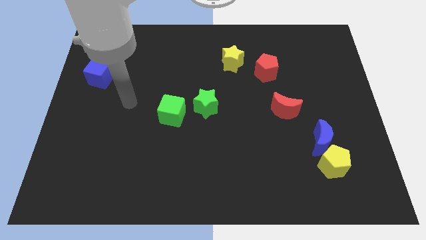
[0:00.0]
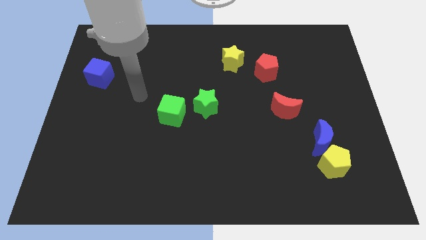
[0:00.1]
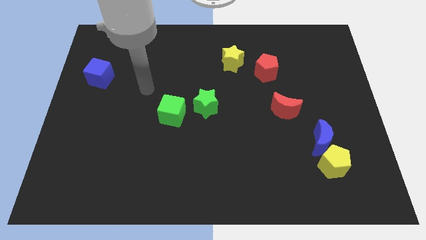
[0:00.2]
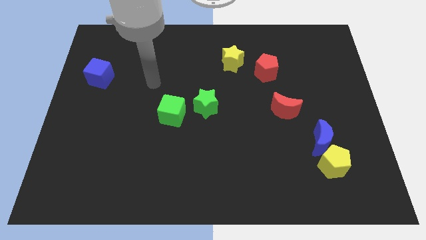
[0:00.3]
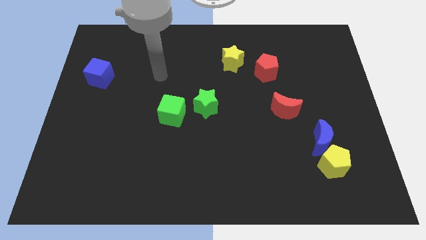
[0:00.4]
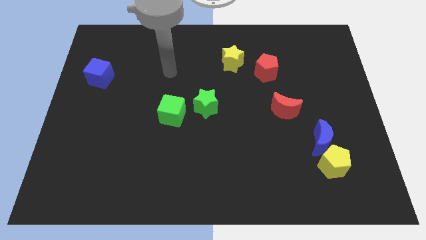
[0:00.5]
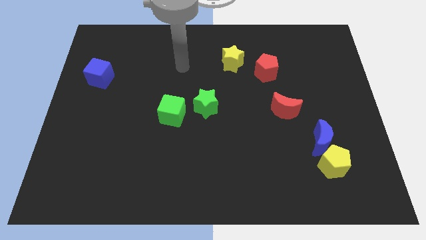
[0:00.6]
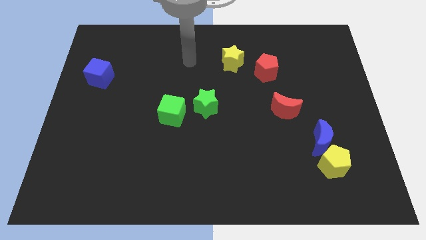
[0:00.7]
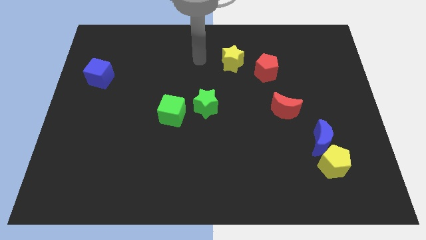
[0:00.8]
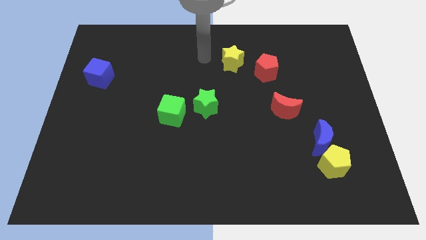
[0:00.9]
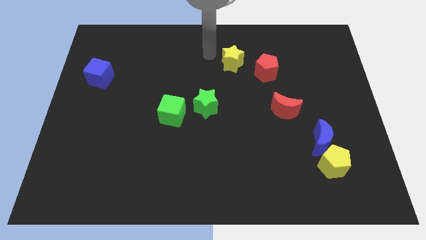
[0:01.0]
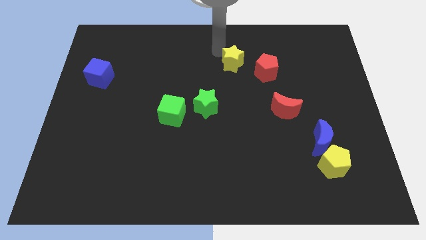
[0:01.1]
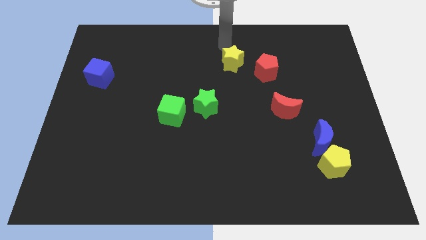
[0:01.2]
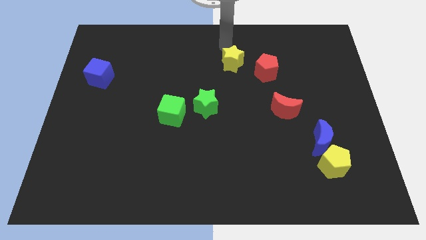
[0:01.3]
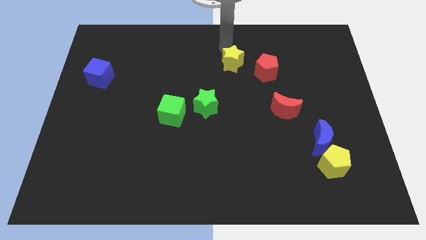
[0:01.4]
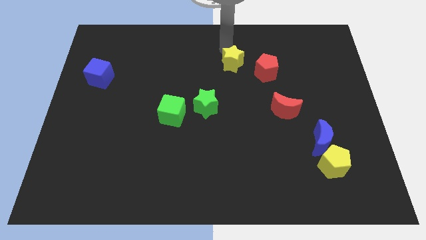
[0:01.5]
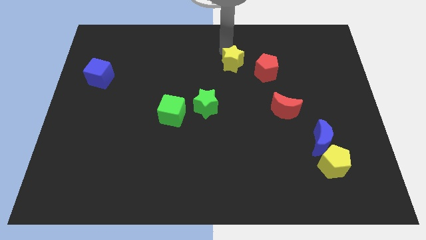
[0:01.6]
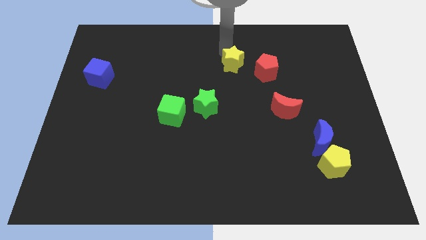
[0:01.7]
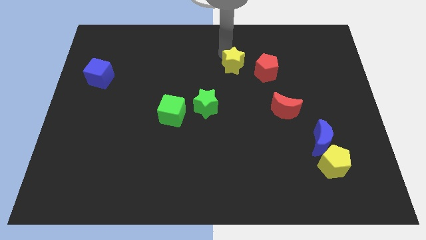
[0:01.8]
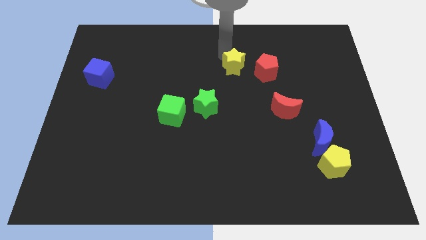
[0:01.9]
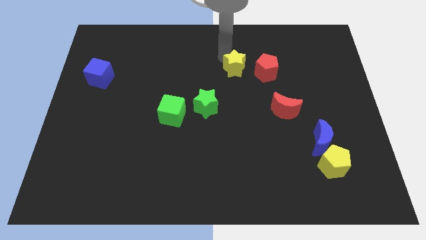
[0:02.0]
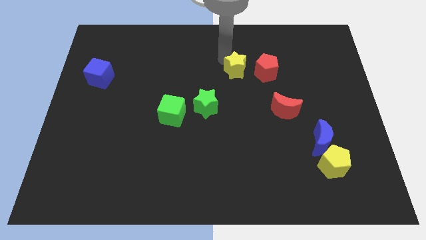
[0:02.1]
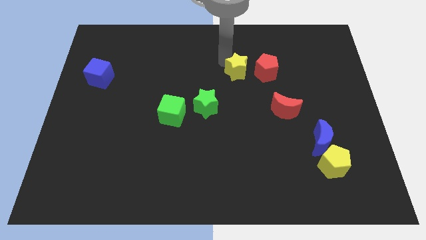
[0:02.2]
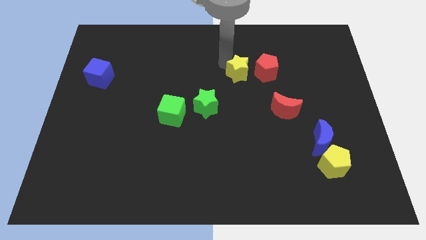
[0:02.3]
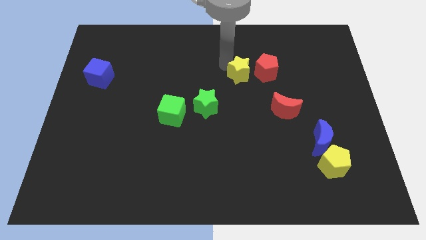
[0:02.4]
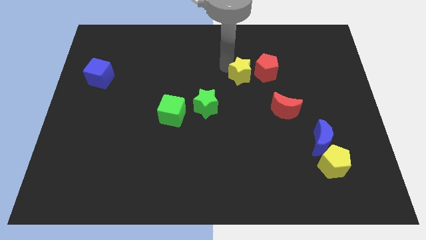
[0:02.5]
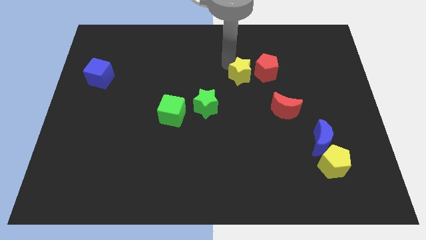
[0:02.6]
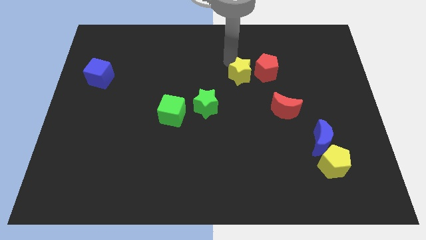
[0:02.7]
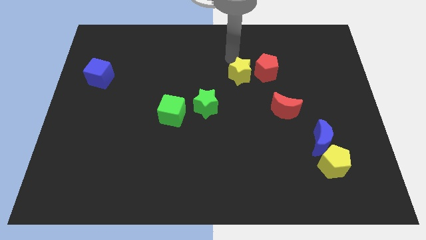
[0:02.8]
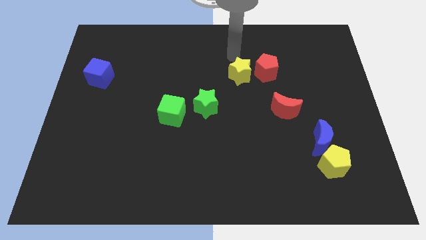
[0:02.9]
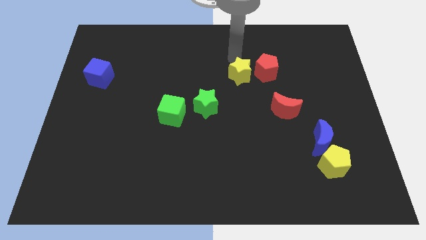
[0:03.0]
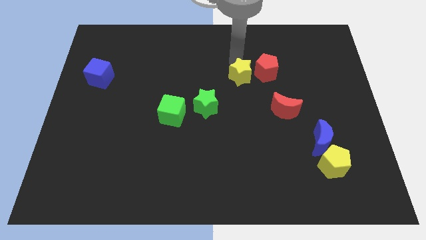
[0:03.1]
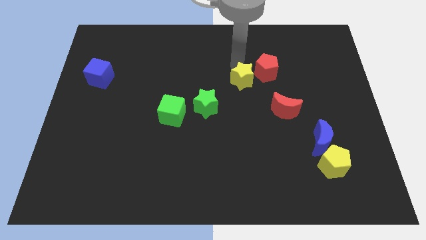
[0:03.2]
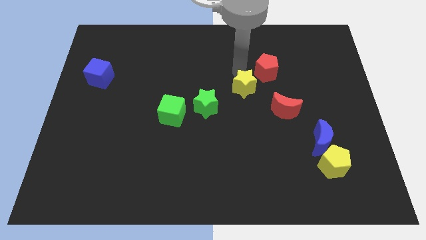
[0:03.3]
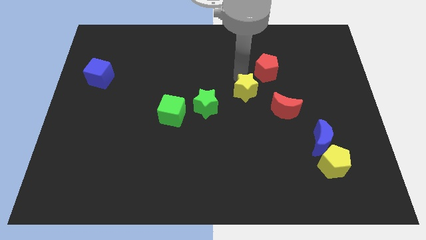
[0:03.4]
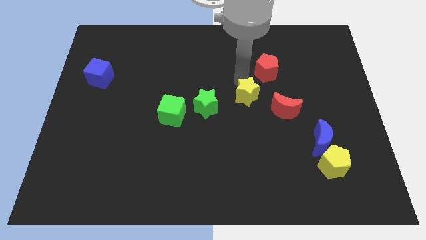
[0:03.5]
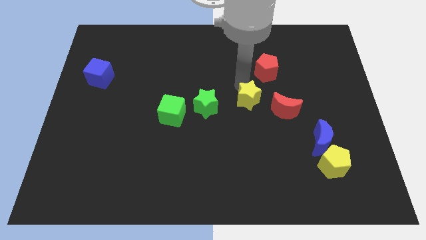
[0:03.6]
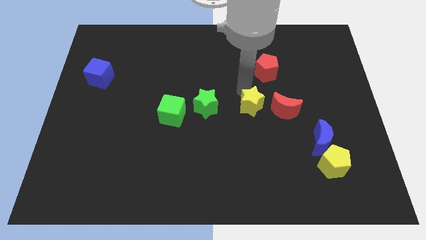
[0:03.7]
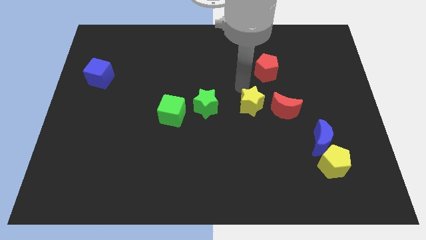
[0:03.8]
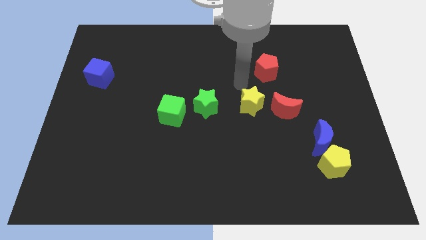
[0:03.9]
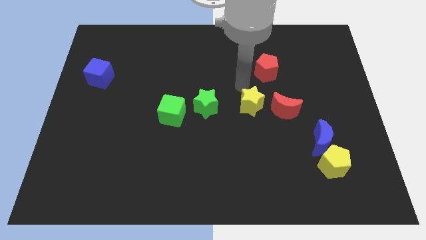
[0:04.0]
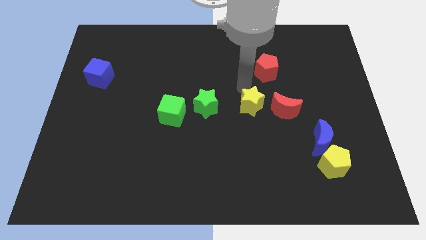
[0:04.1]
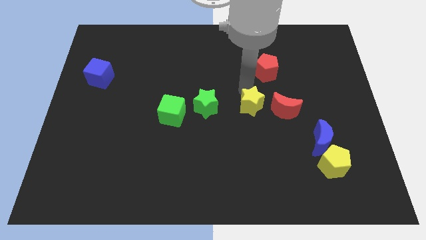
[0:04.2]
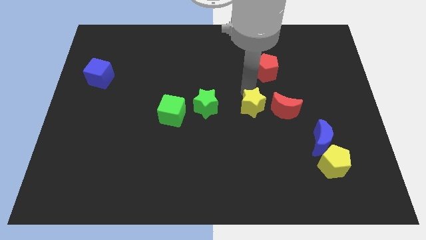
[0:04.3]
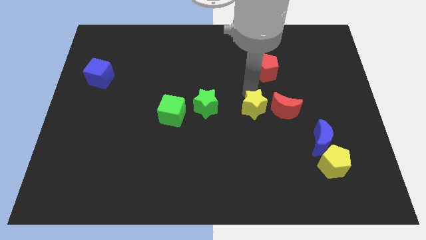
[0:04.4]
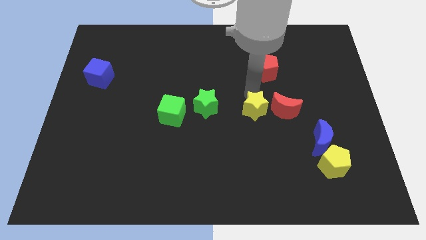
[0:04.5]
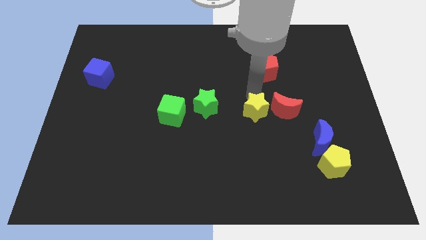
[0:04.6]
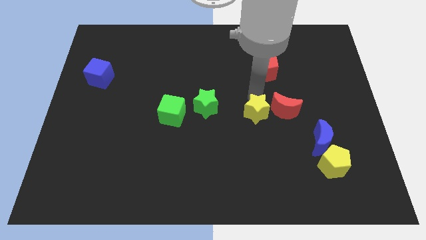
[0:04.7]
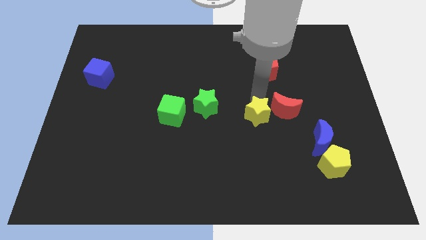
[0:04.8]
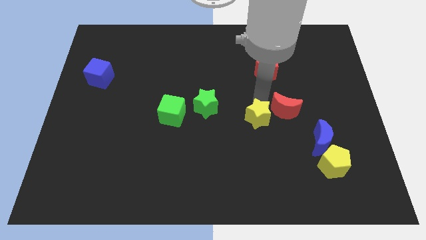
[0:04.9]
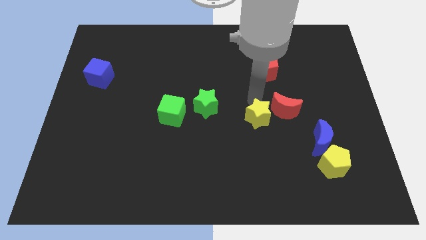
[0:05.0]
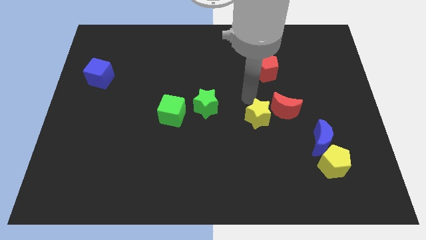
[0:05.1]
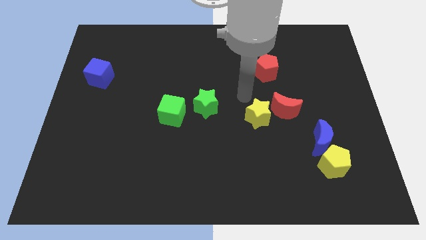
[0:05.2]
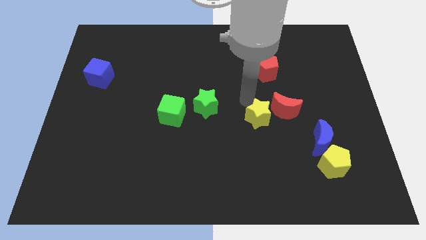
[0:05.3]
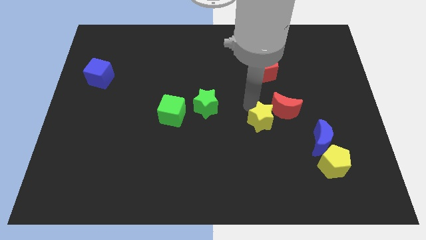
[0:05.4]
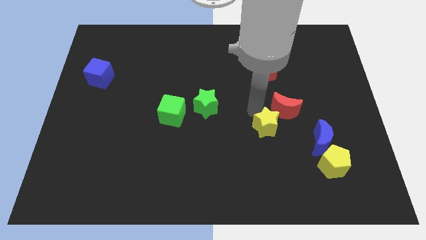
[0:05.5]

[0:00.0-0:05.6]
move the yellow star to the bottom of the red moon

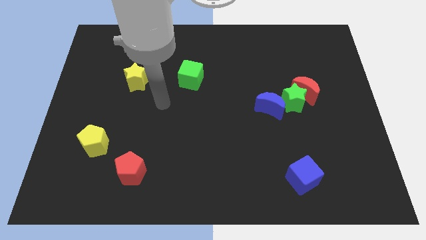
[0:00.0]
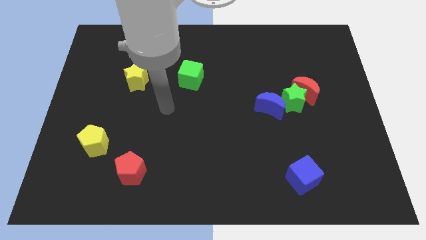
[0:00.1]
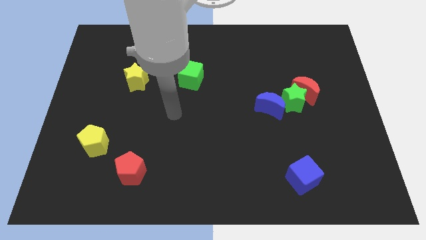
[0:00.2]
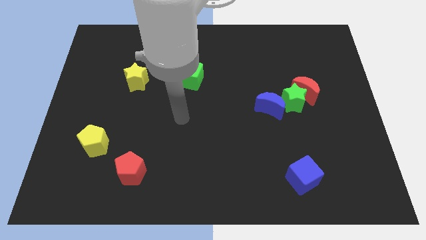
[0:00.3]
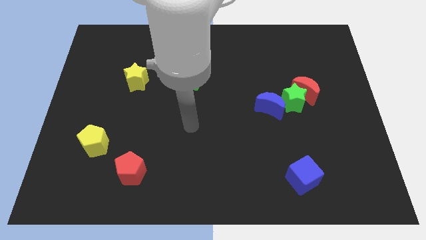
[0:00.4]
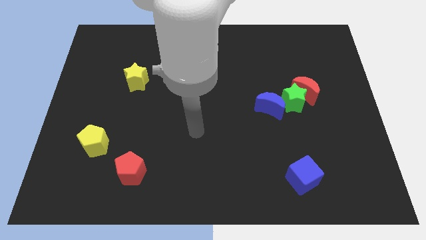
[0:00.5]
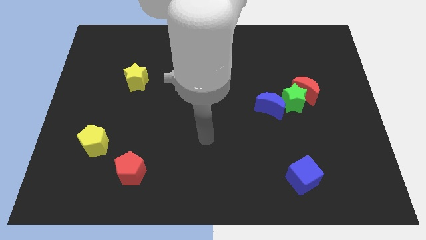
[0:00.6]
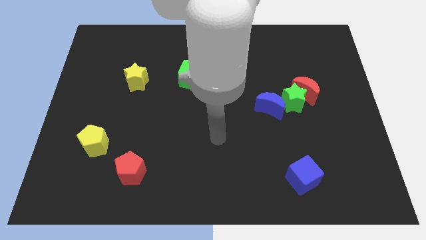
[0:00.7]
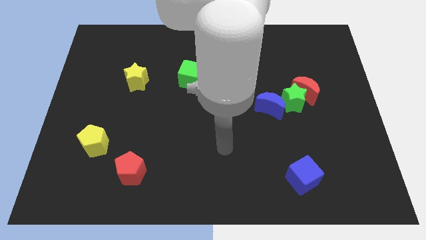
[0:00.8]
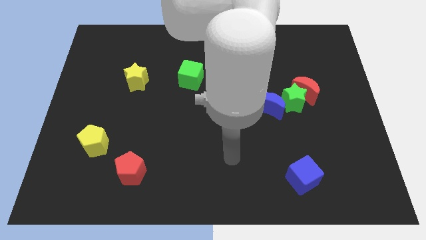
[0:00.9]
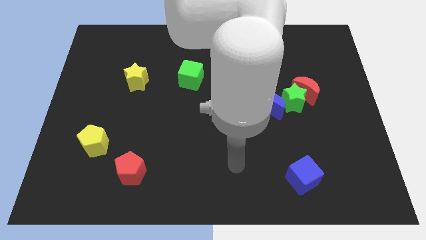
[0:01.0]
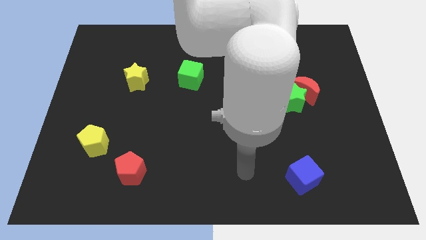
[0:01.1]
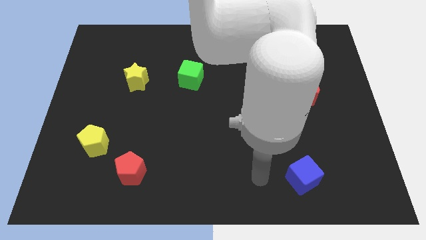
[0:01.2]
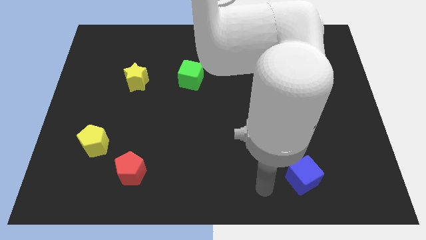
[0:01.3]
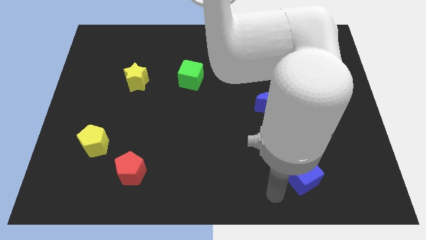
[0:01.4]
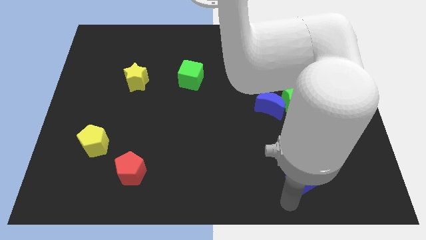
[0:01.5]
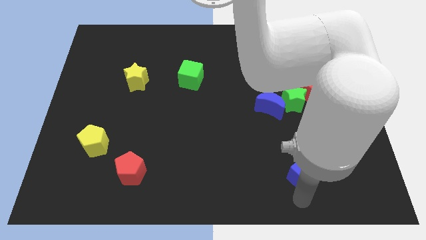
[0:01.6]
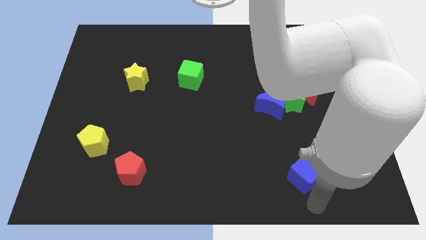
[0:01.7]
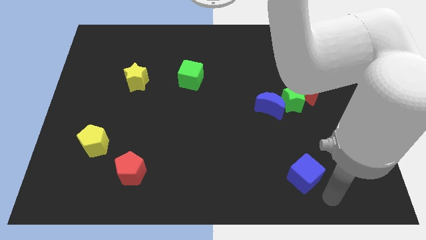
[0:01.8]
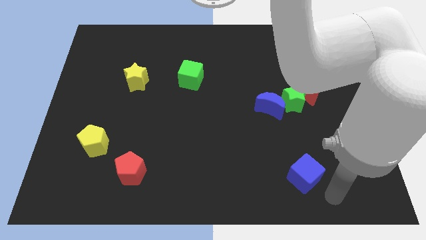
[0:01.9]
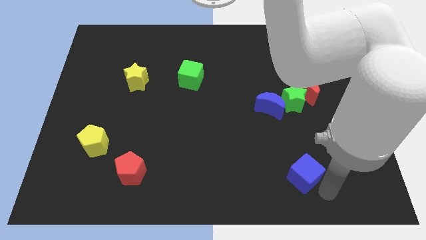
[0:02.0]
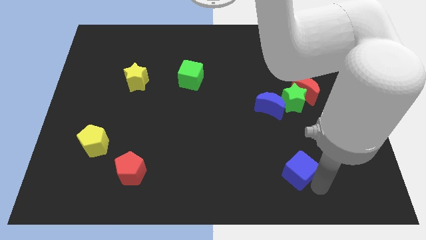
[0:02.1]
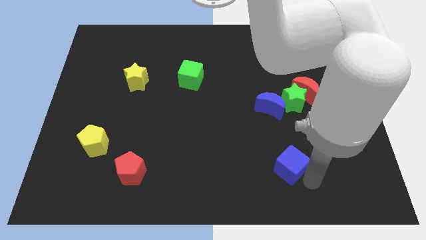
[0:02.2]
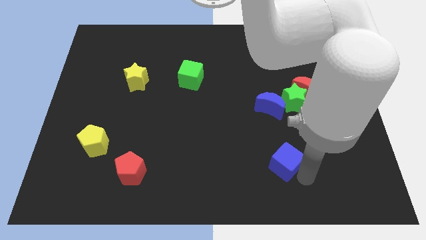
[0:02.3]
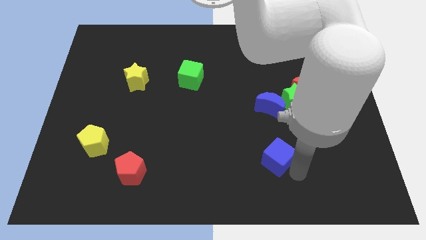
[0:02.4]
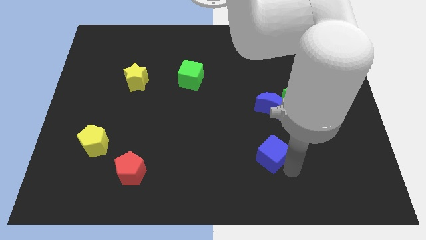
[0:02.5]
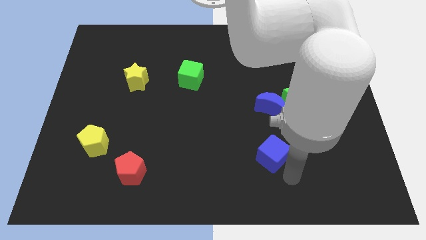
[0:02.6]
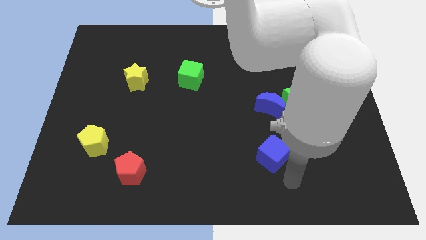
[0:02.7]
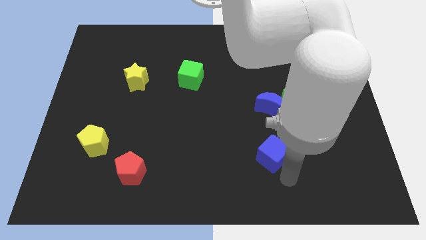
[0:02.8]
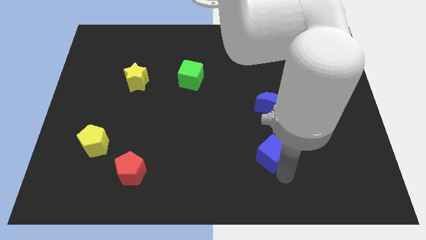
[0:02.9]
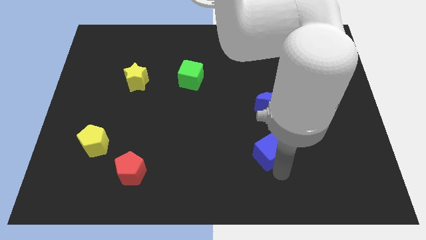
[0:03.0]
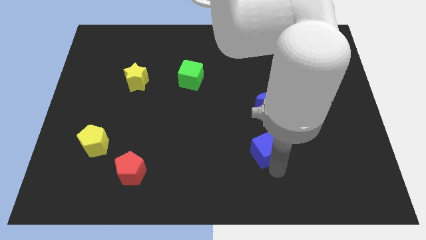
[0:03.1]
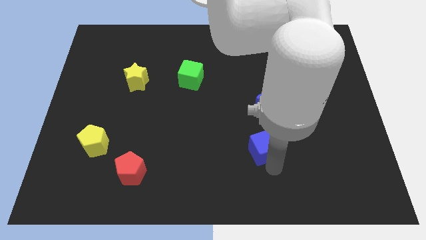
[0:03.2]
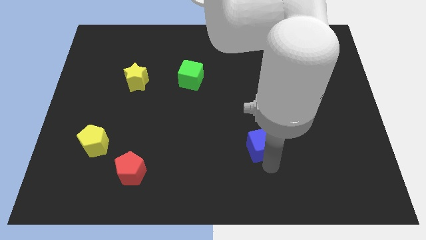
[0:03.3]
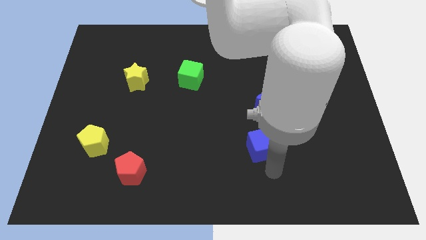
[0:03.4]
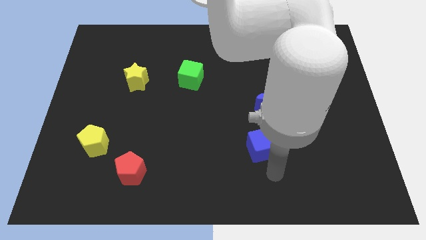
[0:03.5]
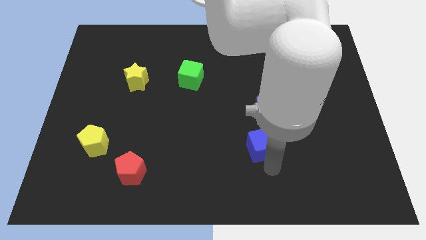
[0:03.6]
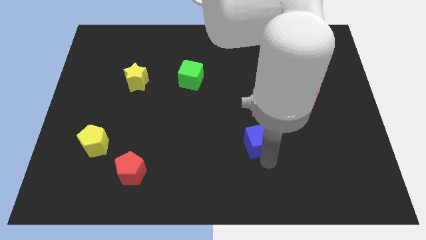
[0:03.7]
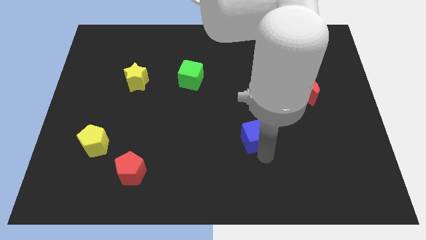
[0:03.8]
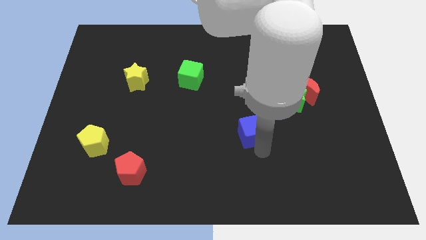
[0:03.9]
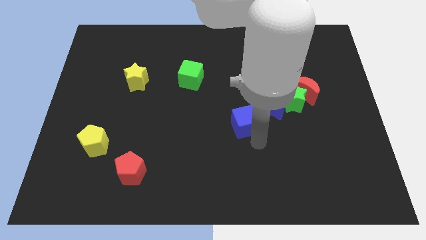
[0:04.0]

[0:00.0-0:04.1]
push the blue cube to the left of the blue moon
